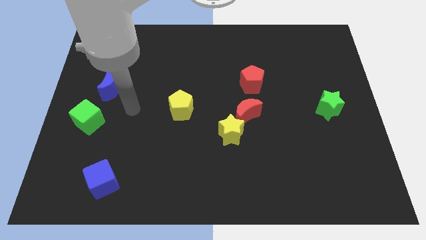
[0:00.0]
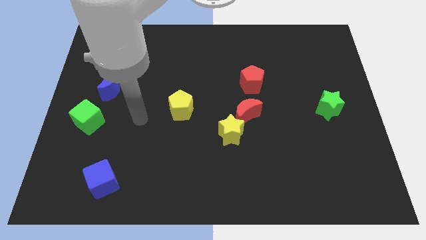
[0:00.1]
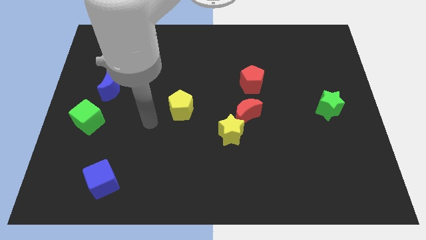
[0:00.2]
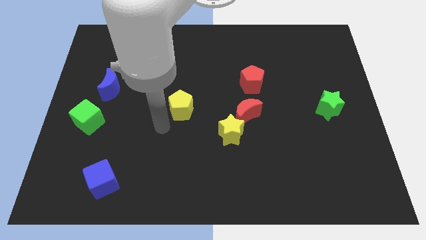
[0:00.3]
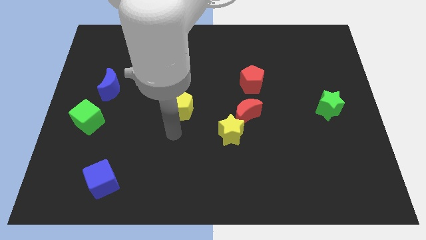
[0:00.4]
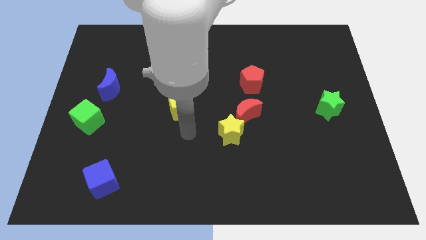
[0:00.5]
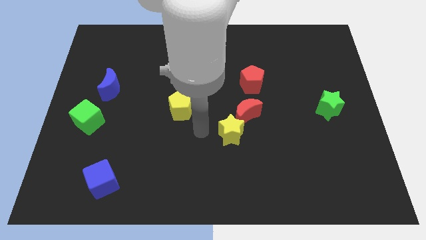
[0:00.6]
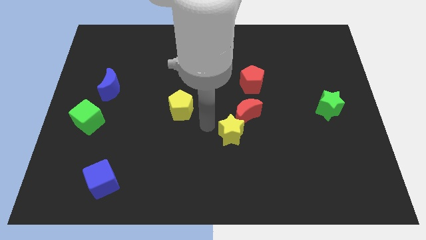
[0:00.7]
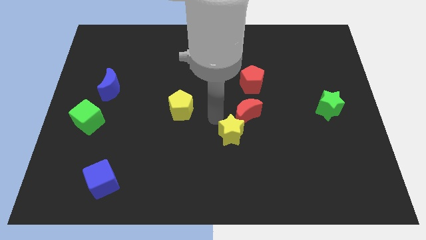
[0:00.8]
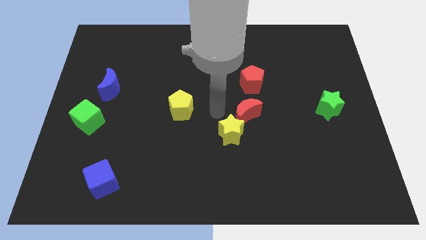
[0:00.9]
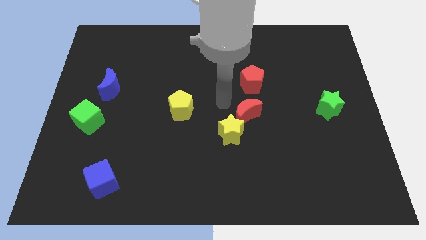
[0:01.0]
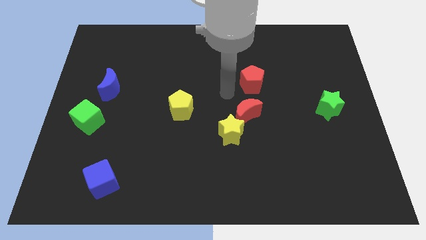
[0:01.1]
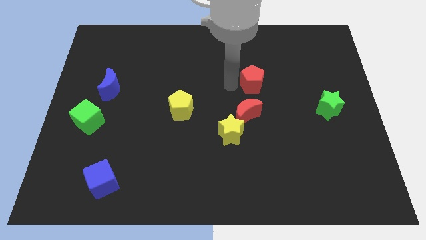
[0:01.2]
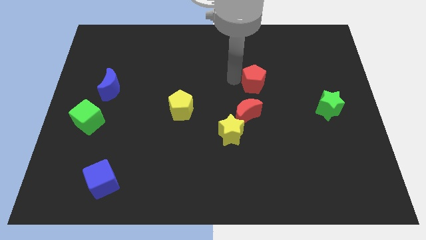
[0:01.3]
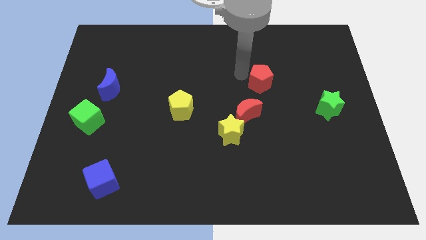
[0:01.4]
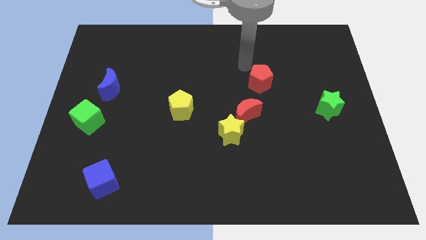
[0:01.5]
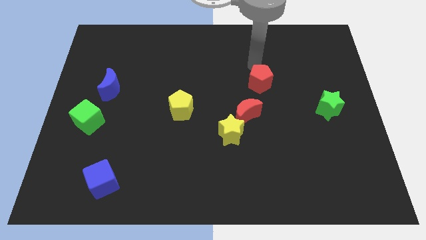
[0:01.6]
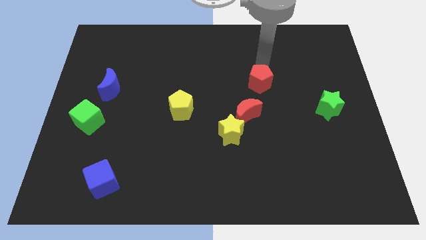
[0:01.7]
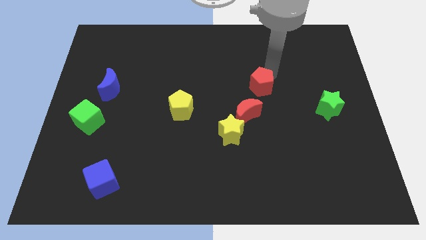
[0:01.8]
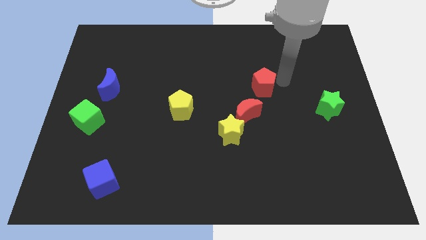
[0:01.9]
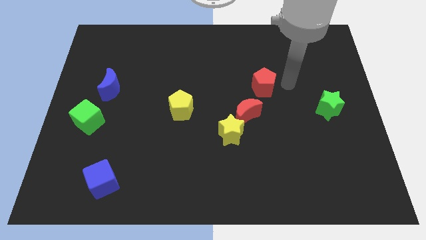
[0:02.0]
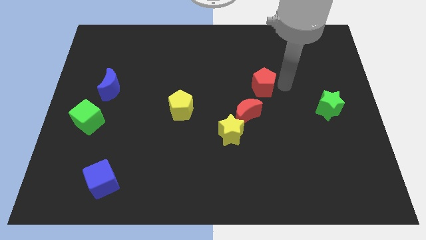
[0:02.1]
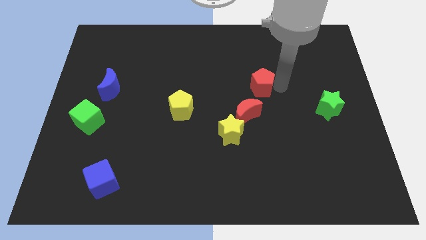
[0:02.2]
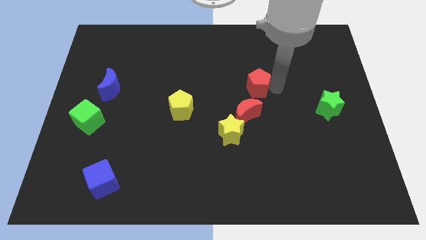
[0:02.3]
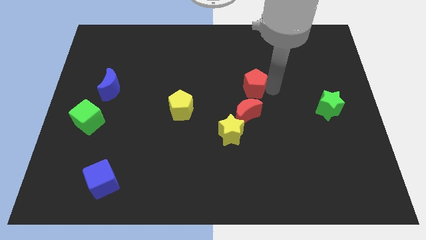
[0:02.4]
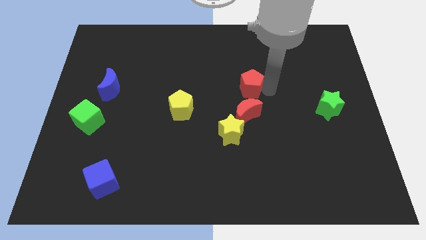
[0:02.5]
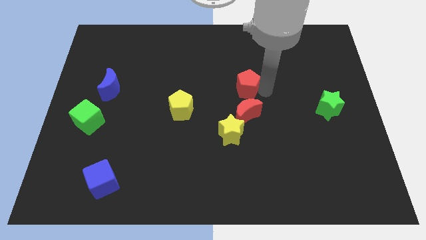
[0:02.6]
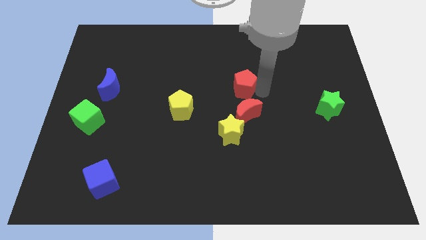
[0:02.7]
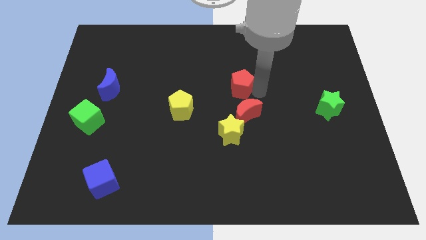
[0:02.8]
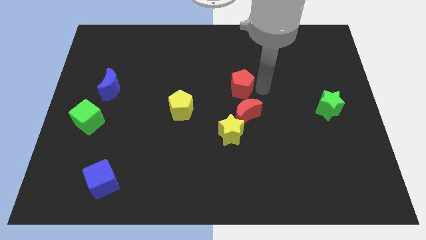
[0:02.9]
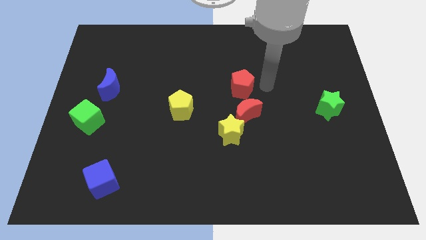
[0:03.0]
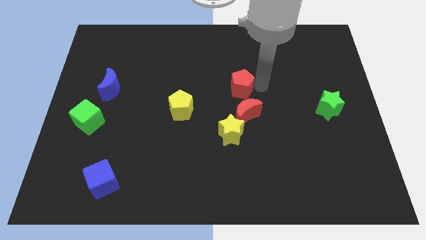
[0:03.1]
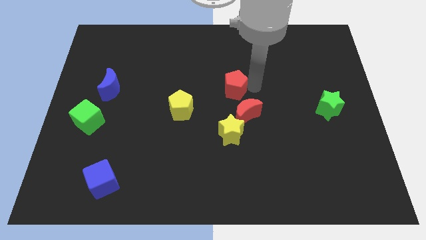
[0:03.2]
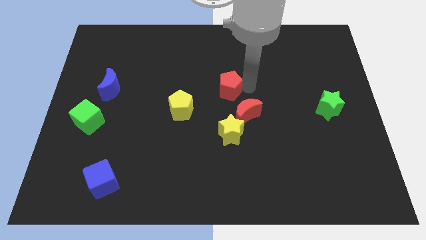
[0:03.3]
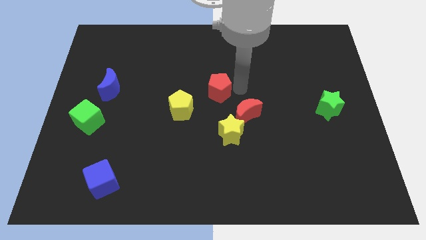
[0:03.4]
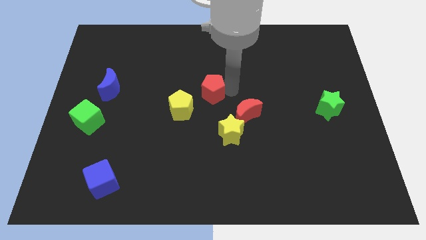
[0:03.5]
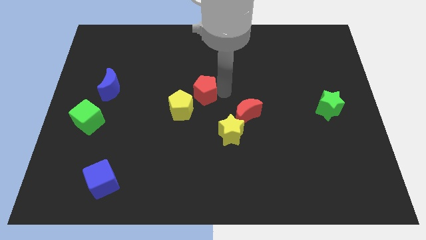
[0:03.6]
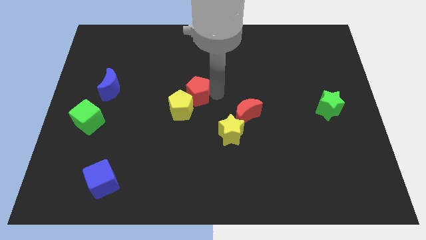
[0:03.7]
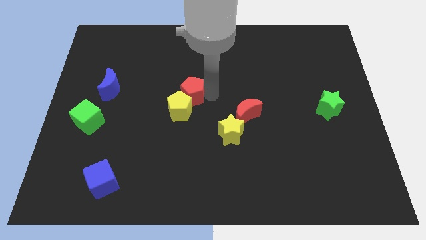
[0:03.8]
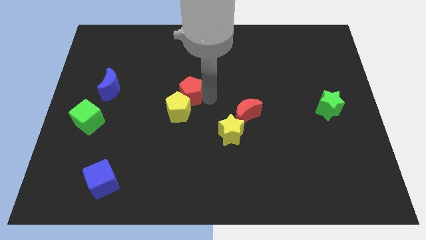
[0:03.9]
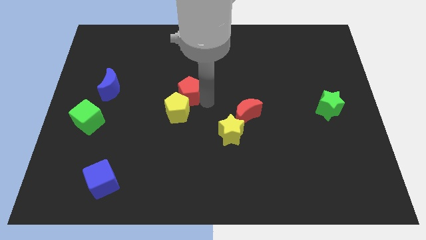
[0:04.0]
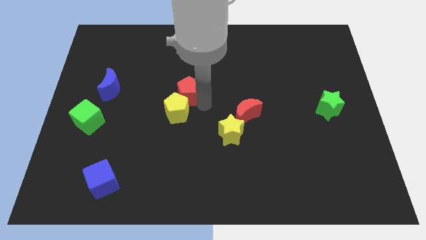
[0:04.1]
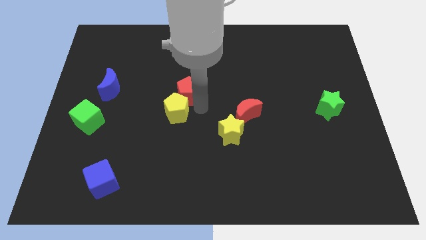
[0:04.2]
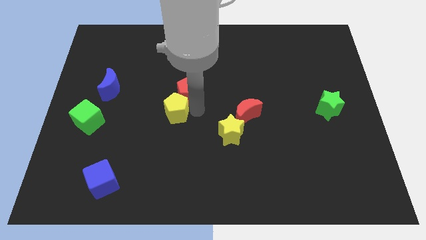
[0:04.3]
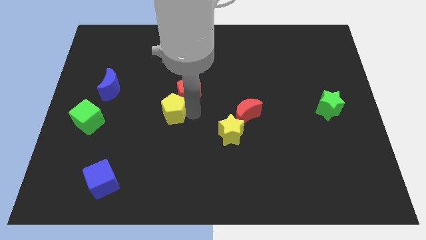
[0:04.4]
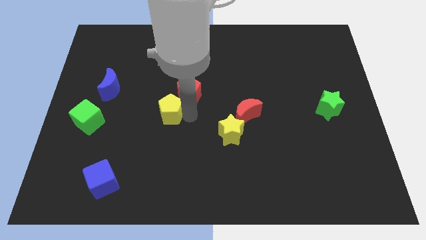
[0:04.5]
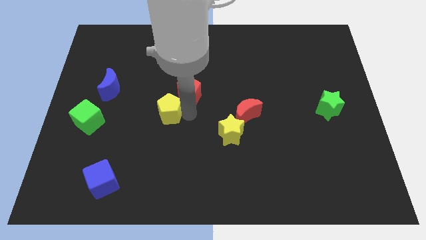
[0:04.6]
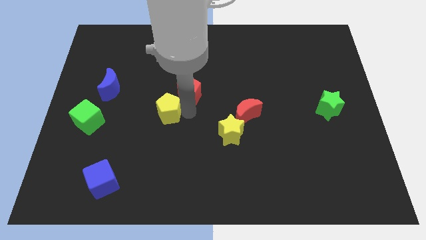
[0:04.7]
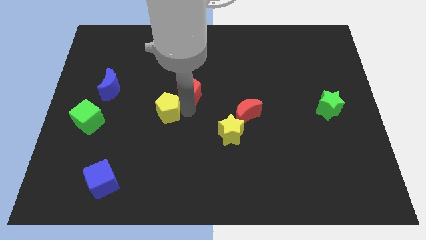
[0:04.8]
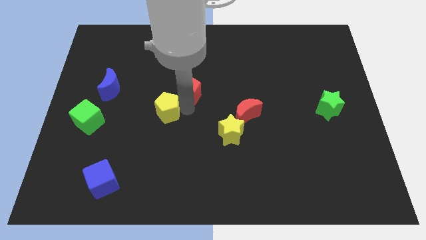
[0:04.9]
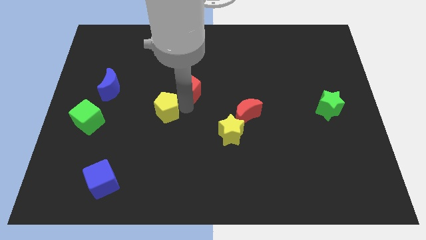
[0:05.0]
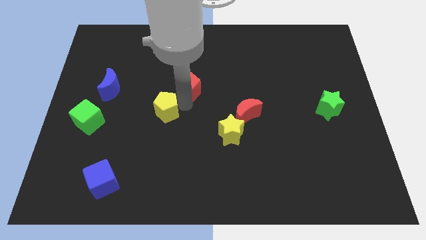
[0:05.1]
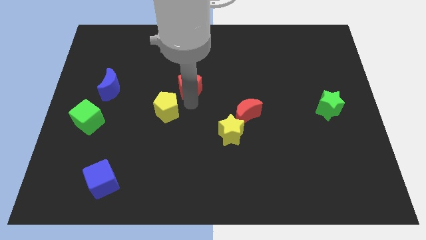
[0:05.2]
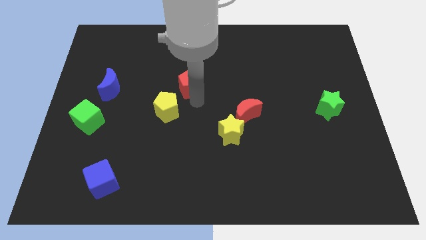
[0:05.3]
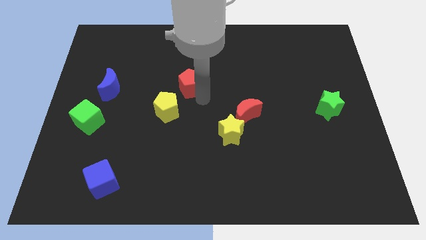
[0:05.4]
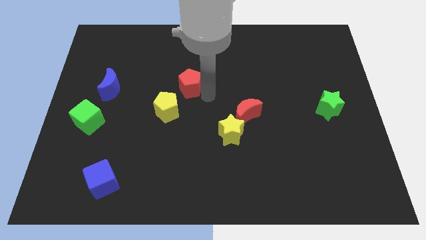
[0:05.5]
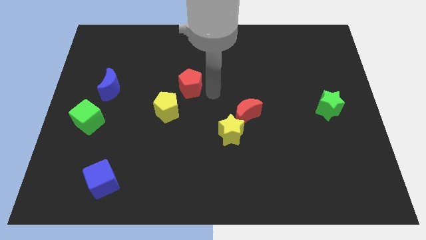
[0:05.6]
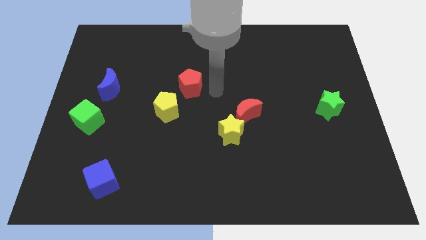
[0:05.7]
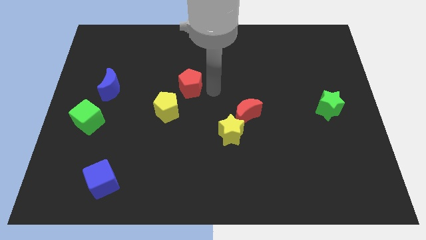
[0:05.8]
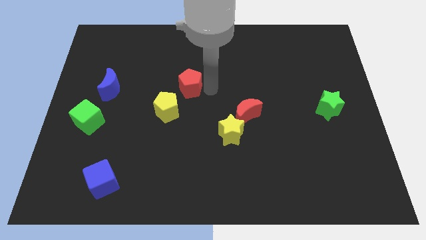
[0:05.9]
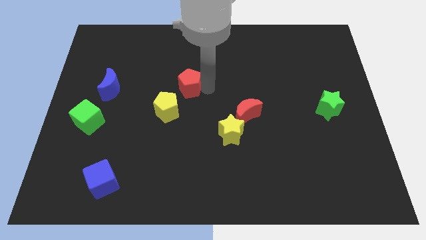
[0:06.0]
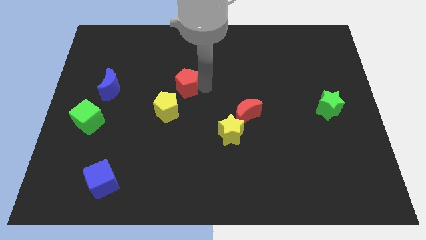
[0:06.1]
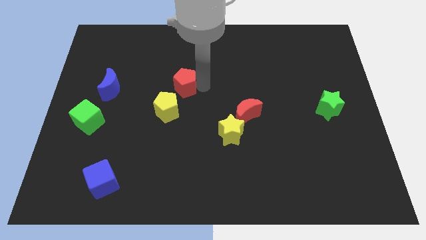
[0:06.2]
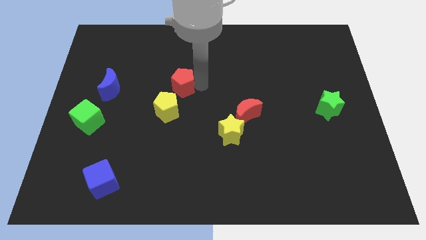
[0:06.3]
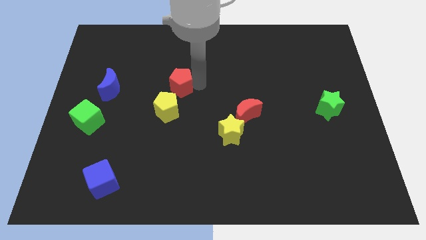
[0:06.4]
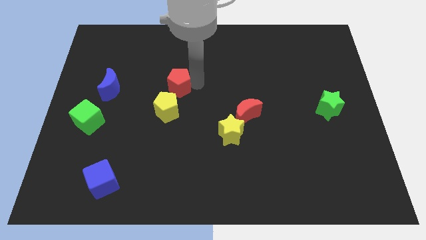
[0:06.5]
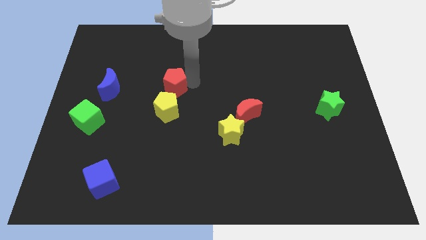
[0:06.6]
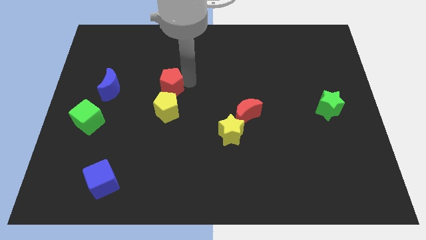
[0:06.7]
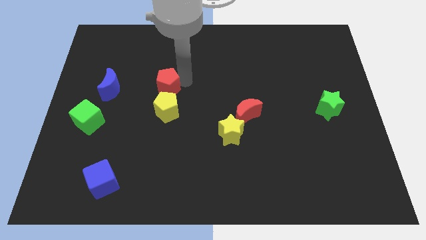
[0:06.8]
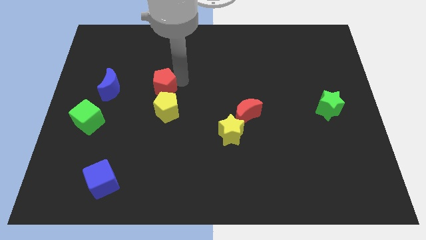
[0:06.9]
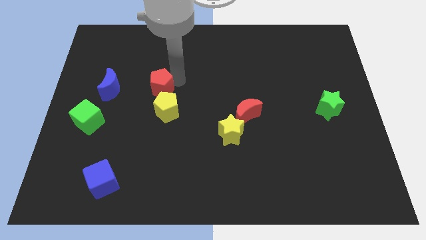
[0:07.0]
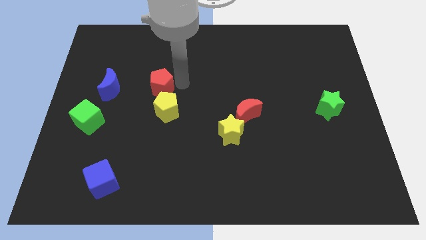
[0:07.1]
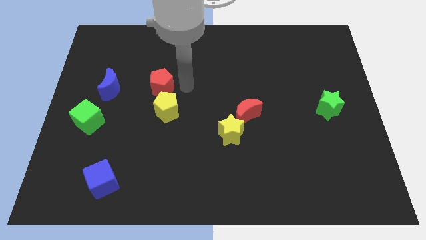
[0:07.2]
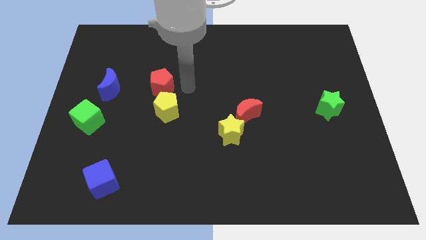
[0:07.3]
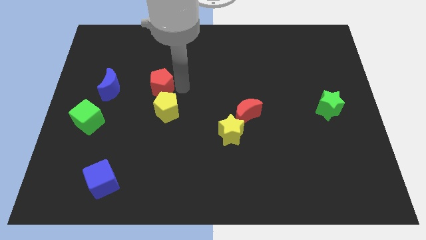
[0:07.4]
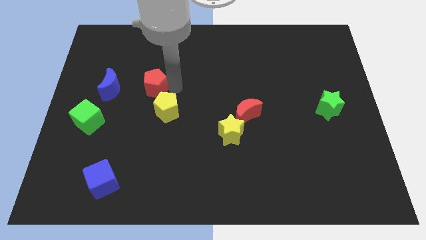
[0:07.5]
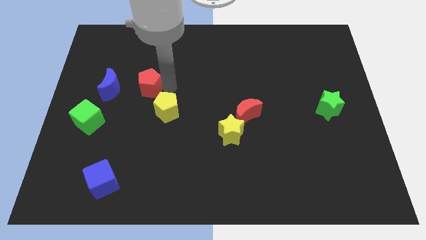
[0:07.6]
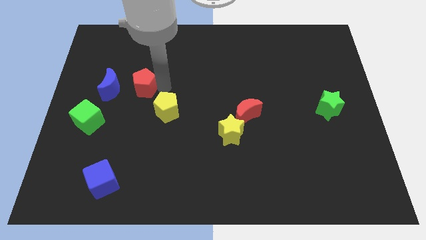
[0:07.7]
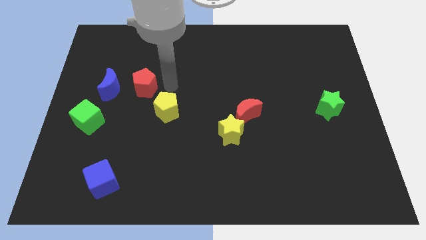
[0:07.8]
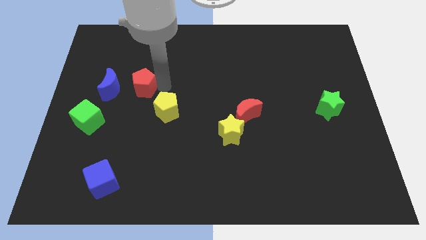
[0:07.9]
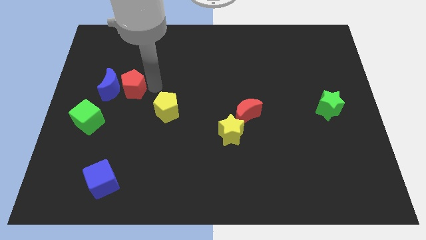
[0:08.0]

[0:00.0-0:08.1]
slide the red pentagon next to the blue moon
